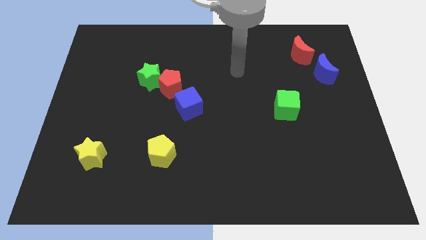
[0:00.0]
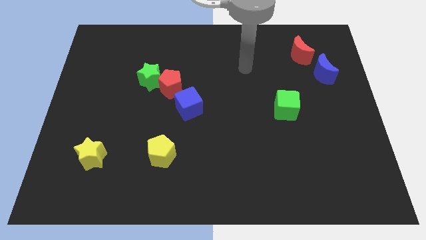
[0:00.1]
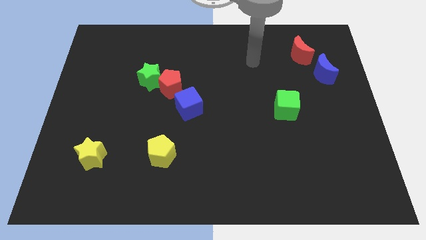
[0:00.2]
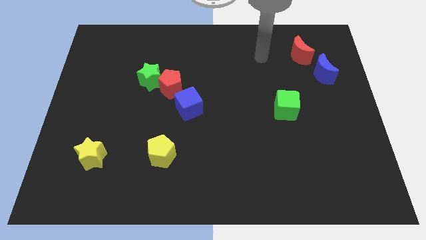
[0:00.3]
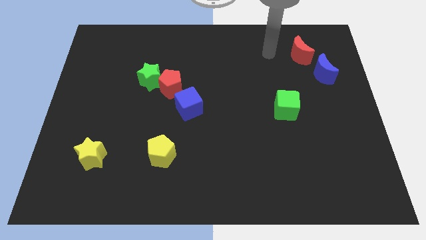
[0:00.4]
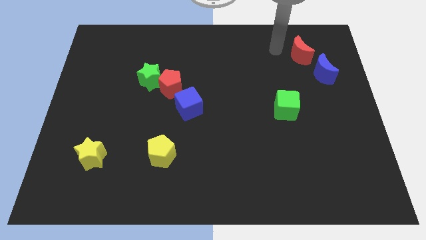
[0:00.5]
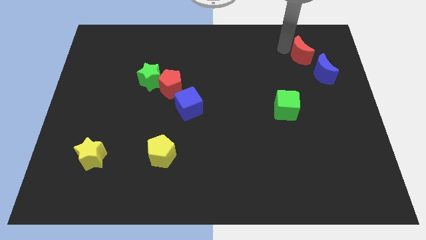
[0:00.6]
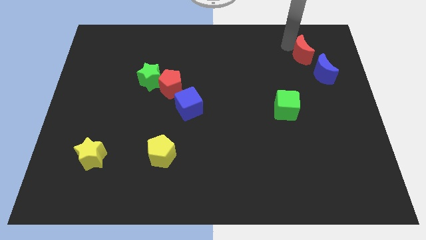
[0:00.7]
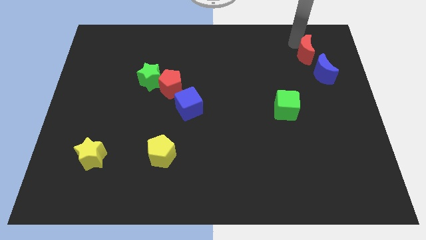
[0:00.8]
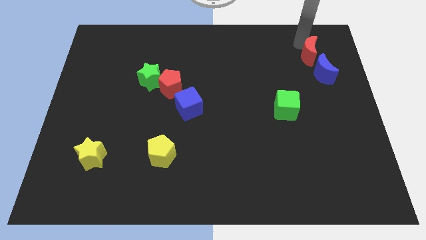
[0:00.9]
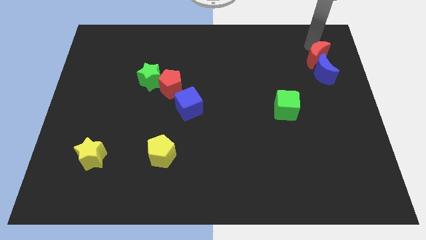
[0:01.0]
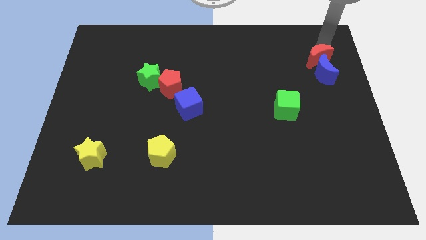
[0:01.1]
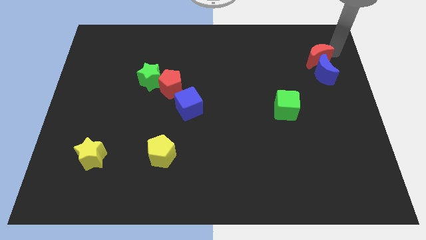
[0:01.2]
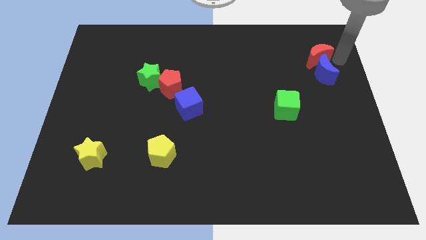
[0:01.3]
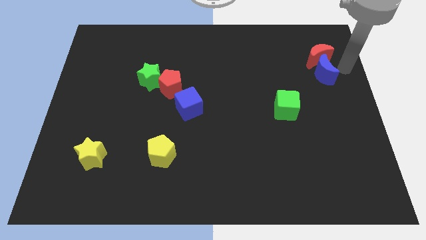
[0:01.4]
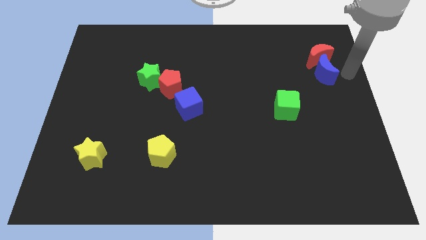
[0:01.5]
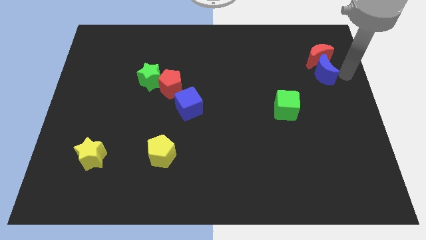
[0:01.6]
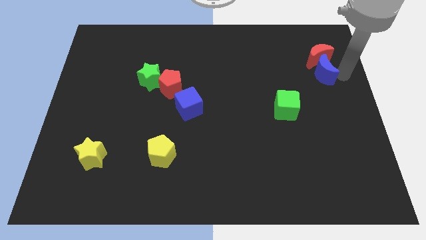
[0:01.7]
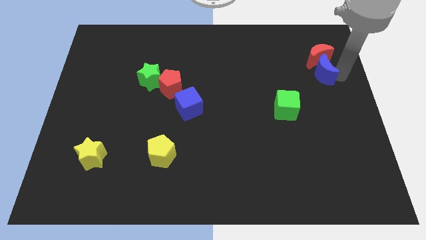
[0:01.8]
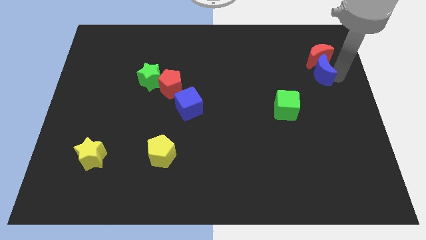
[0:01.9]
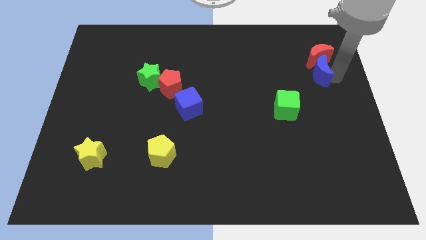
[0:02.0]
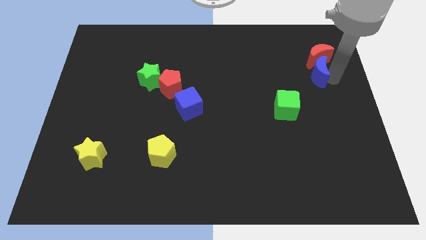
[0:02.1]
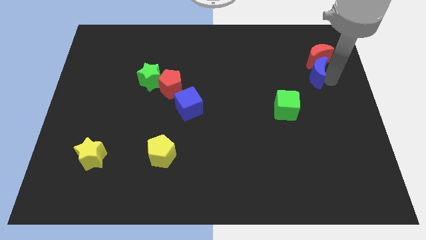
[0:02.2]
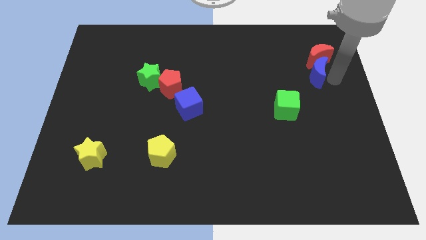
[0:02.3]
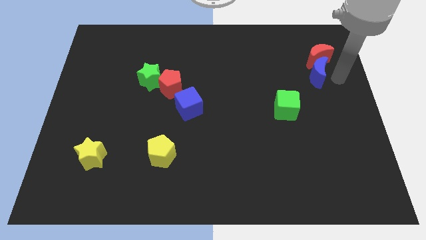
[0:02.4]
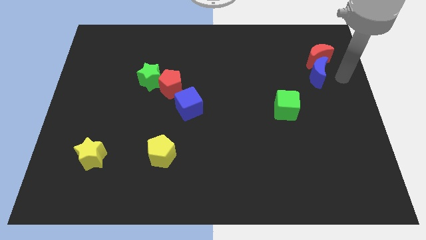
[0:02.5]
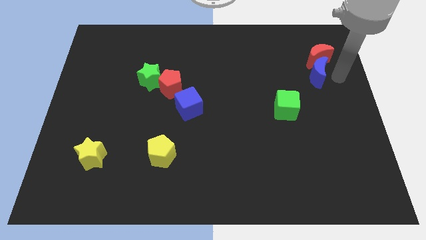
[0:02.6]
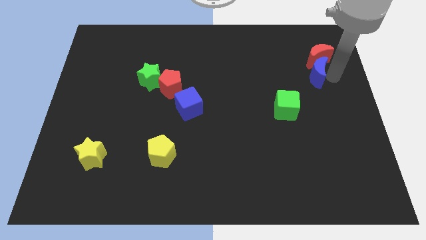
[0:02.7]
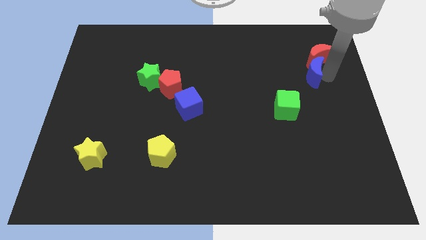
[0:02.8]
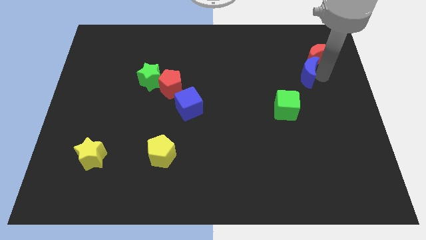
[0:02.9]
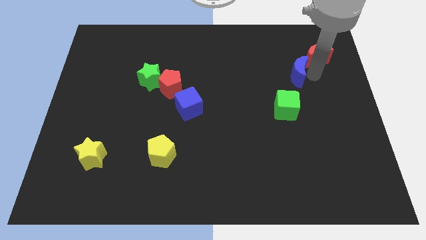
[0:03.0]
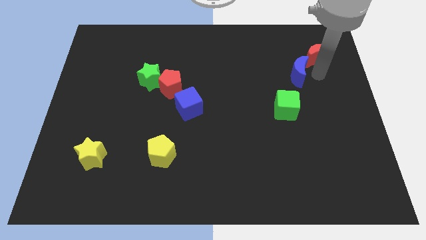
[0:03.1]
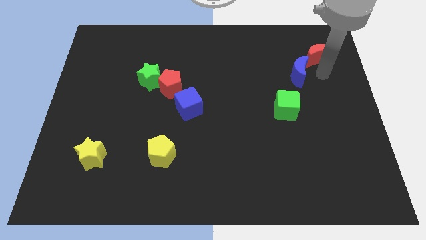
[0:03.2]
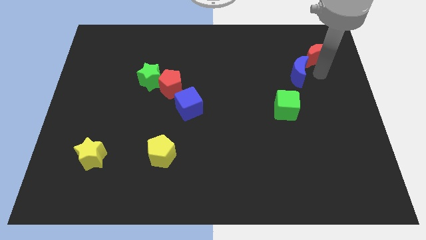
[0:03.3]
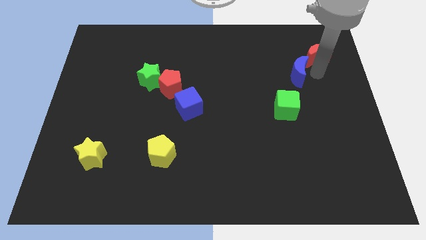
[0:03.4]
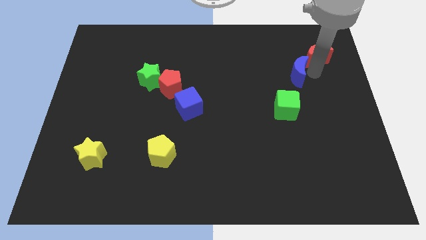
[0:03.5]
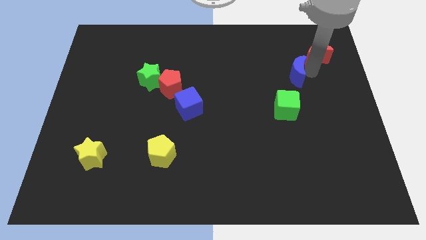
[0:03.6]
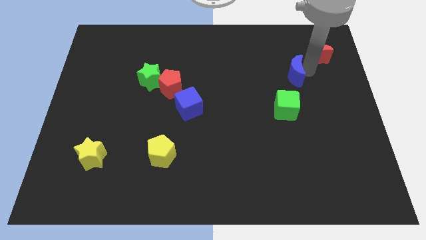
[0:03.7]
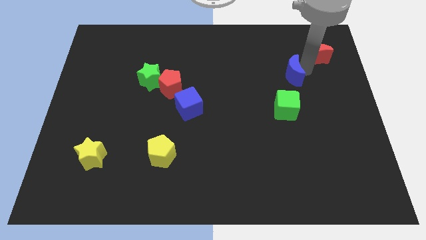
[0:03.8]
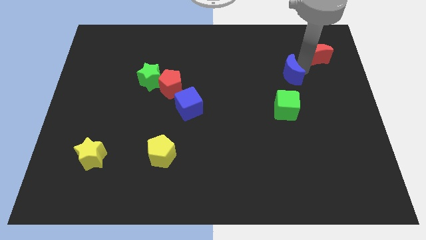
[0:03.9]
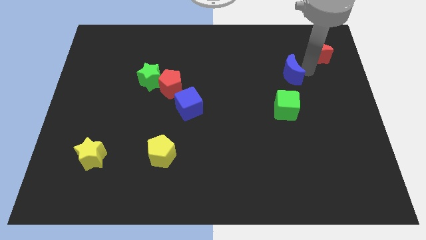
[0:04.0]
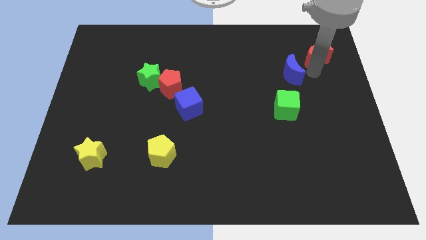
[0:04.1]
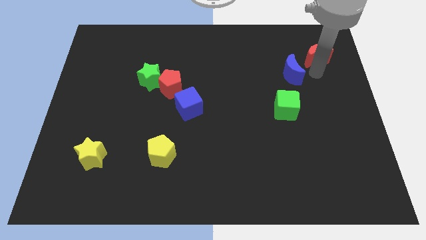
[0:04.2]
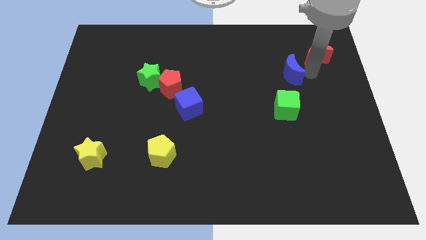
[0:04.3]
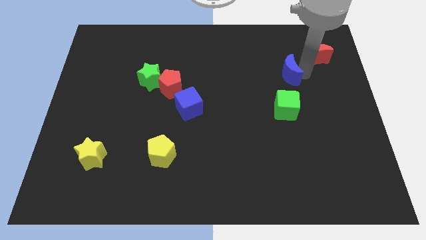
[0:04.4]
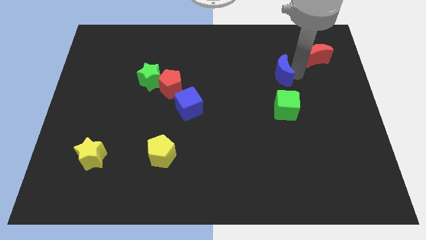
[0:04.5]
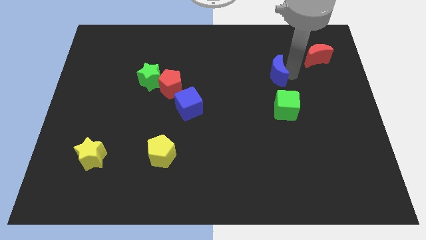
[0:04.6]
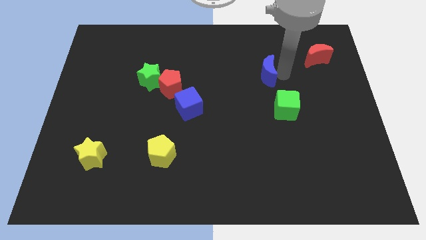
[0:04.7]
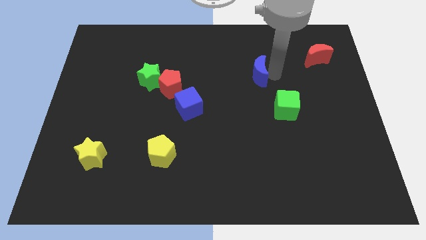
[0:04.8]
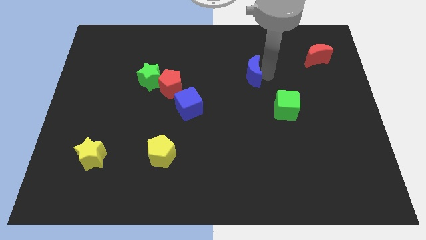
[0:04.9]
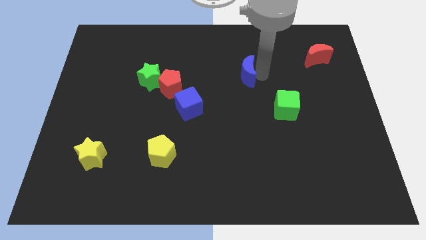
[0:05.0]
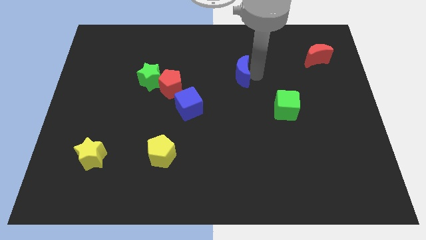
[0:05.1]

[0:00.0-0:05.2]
push the blue moon left

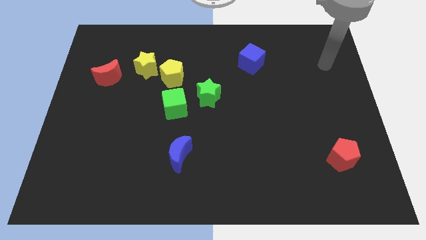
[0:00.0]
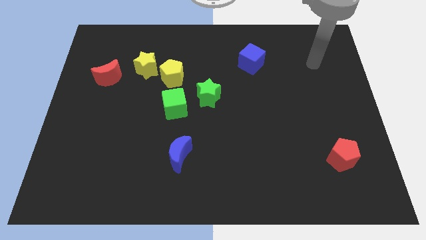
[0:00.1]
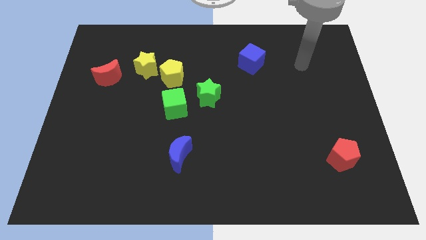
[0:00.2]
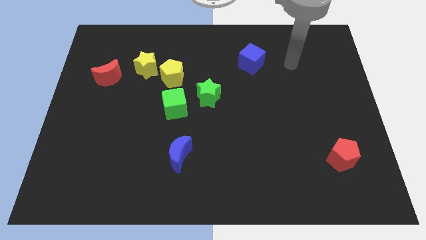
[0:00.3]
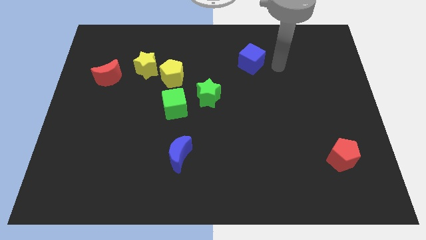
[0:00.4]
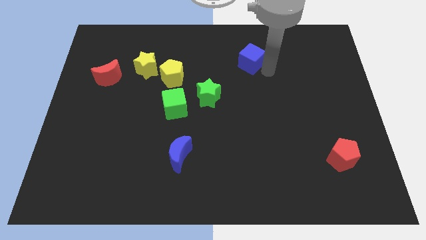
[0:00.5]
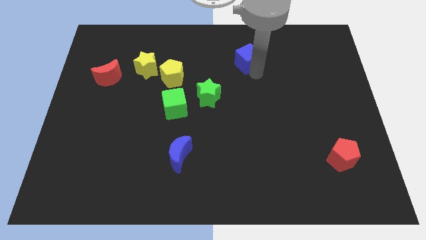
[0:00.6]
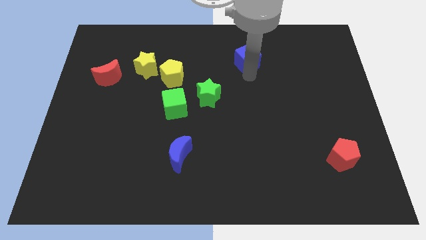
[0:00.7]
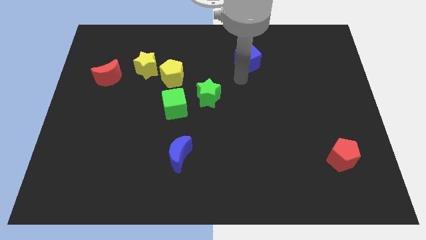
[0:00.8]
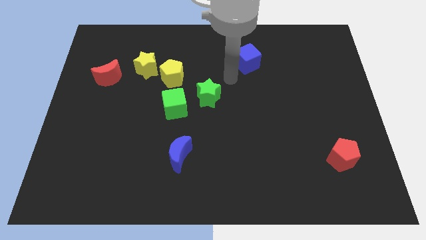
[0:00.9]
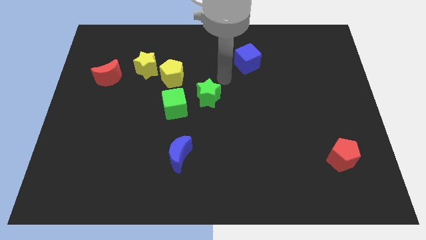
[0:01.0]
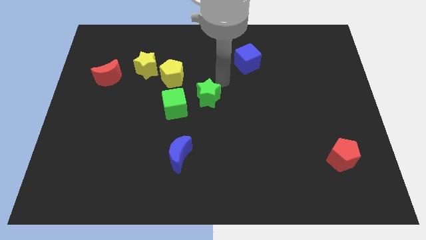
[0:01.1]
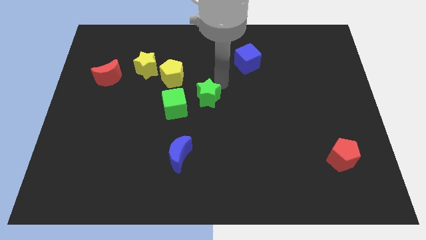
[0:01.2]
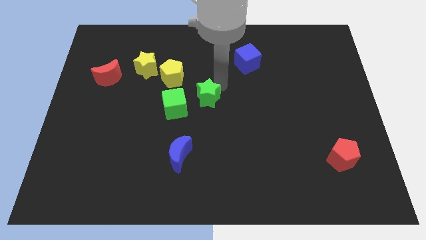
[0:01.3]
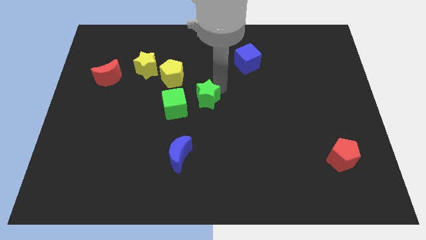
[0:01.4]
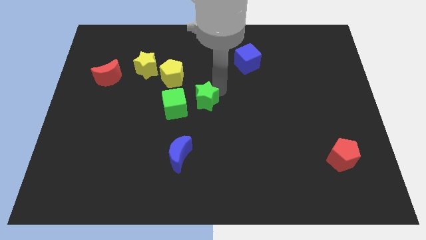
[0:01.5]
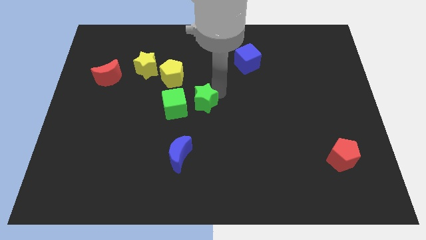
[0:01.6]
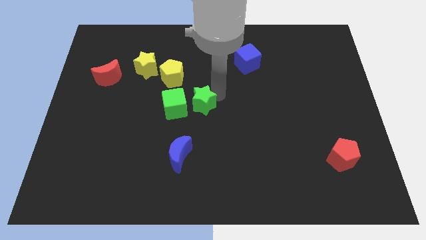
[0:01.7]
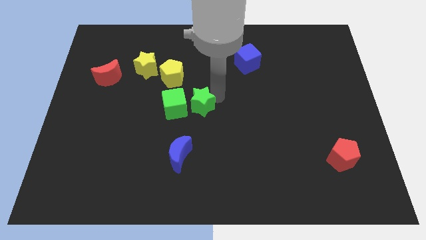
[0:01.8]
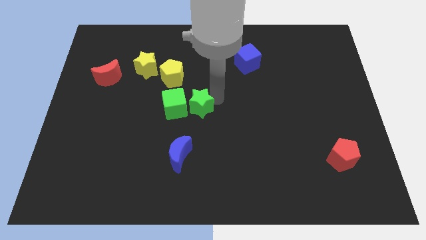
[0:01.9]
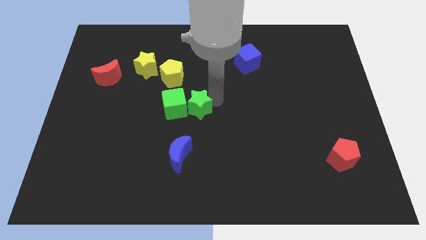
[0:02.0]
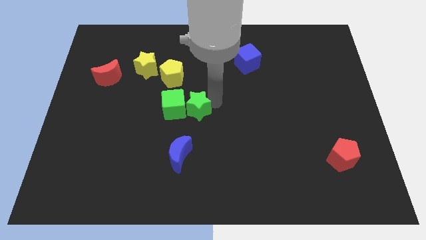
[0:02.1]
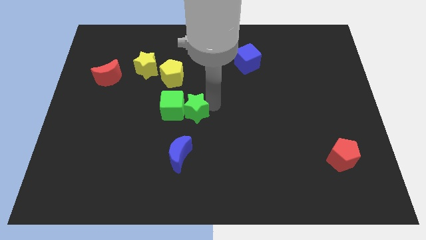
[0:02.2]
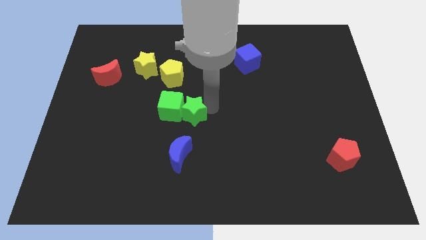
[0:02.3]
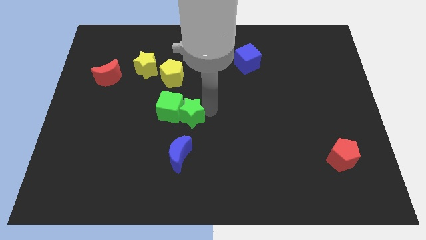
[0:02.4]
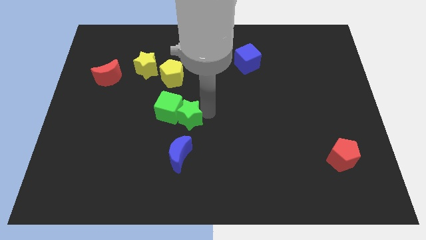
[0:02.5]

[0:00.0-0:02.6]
slide the green star down and left somewhat

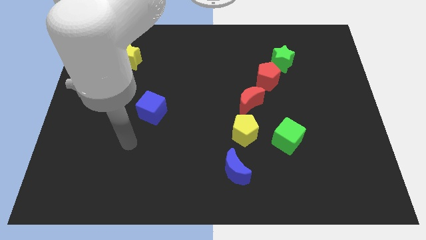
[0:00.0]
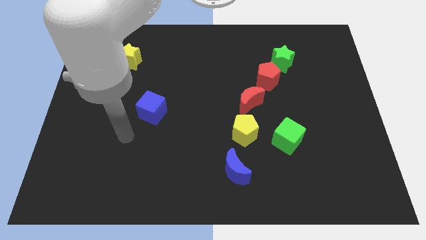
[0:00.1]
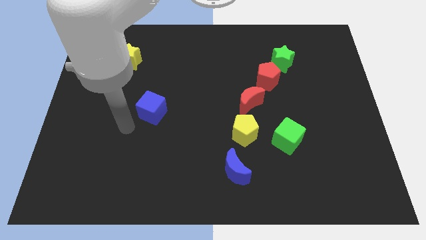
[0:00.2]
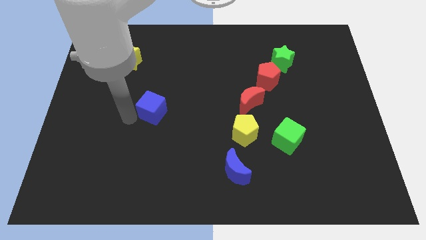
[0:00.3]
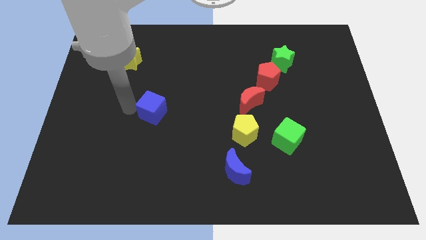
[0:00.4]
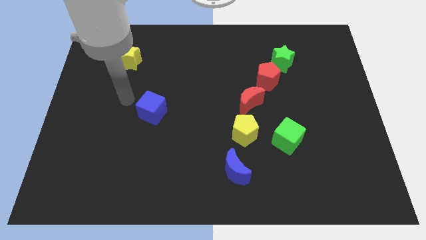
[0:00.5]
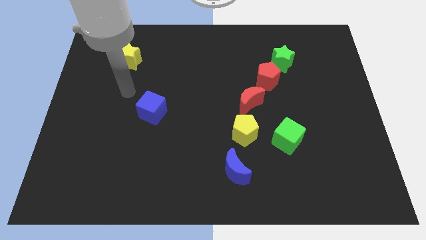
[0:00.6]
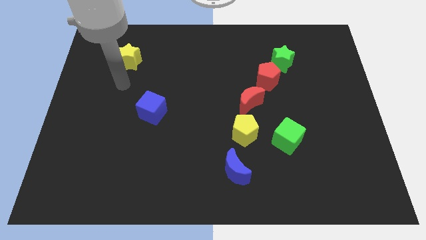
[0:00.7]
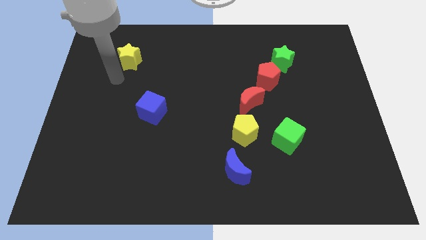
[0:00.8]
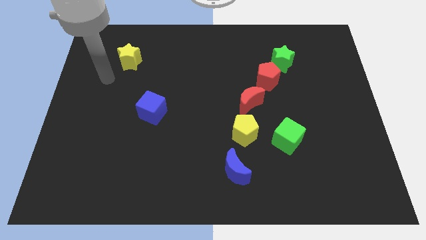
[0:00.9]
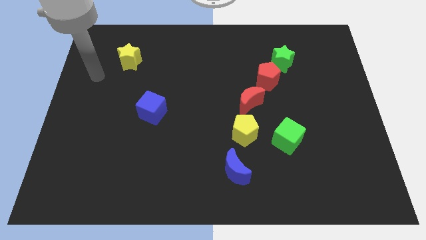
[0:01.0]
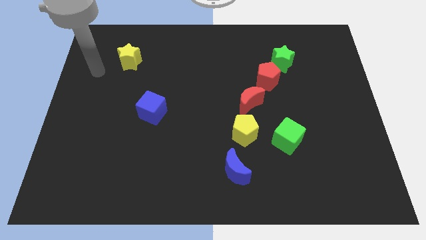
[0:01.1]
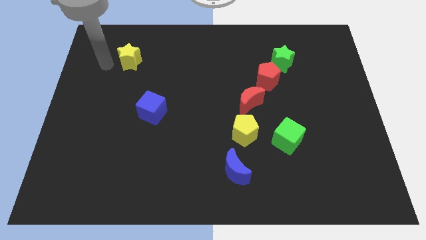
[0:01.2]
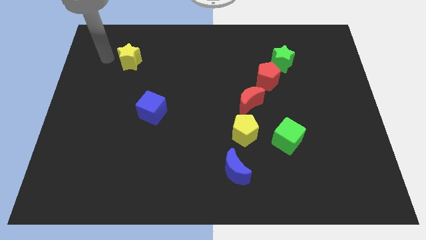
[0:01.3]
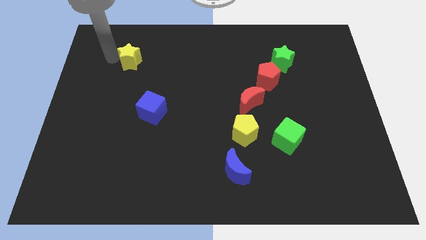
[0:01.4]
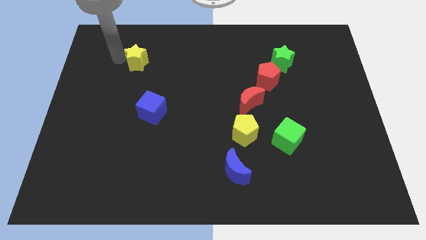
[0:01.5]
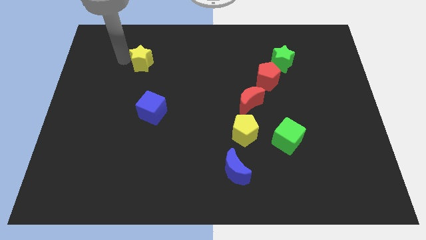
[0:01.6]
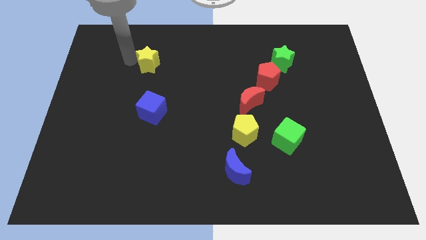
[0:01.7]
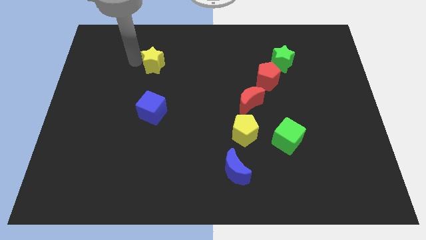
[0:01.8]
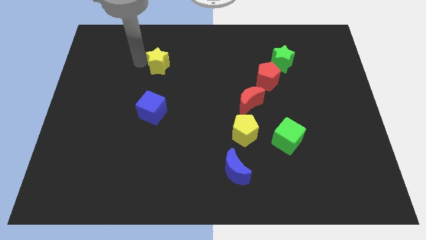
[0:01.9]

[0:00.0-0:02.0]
push the yellow star right a bit
